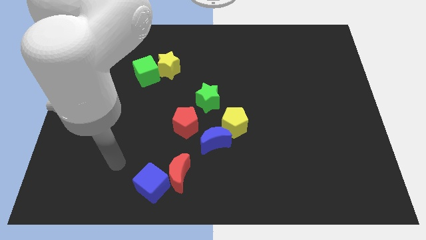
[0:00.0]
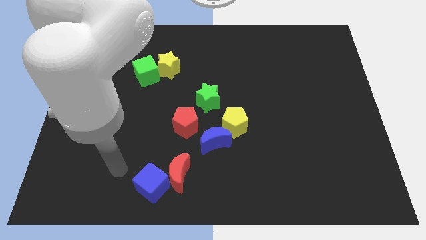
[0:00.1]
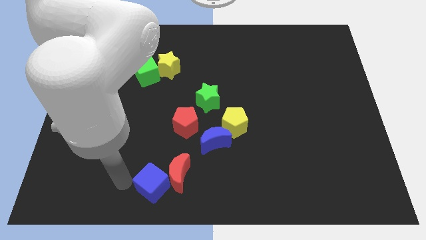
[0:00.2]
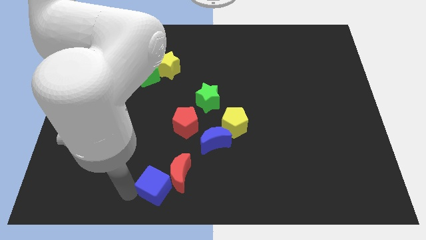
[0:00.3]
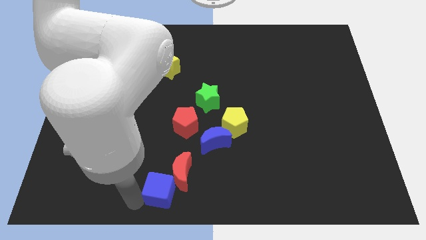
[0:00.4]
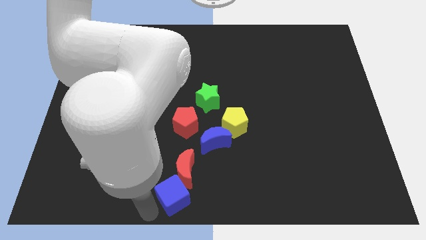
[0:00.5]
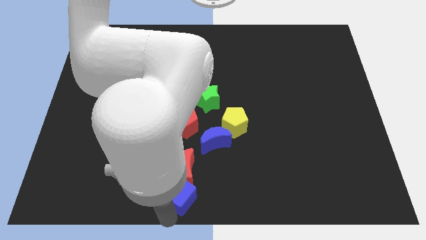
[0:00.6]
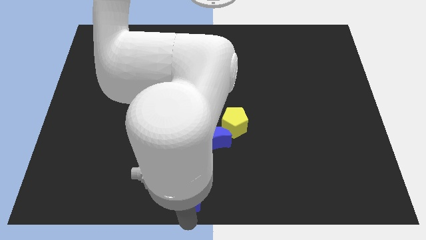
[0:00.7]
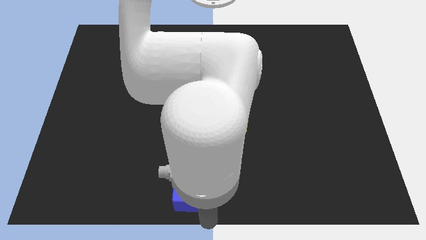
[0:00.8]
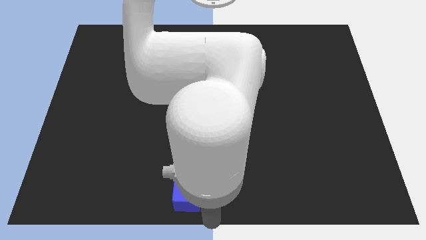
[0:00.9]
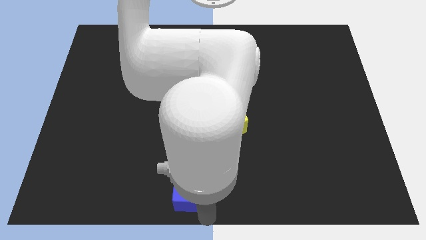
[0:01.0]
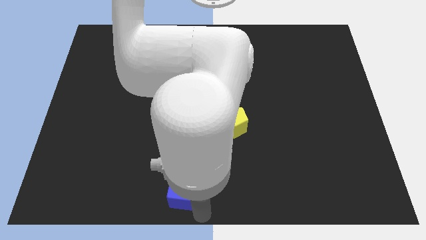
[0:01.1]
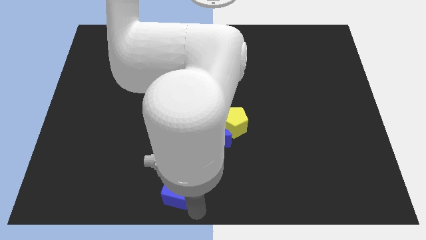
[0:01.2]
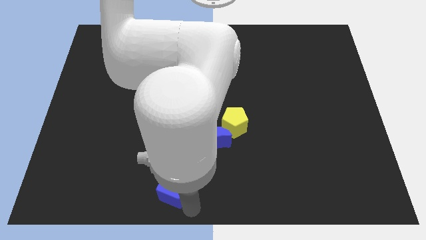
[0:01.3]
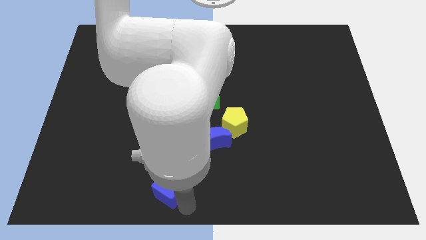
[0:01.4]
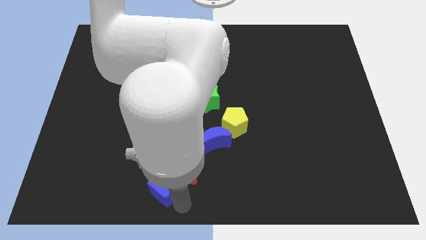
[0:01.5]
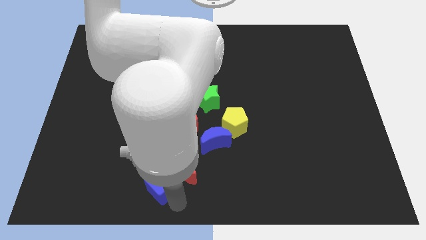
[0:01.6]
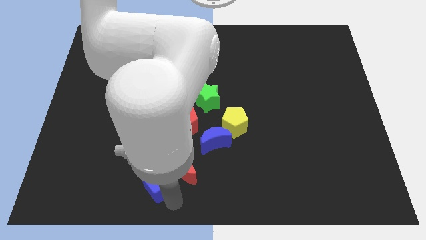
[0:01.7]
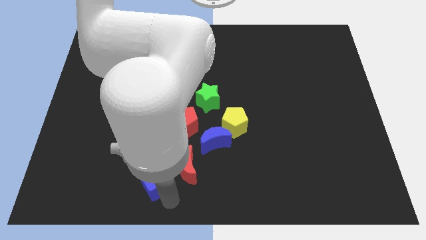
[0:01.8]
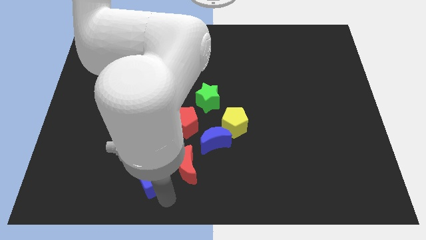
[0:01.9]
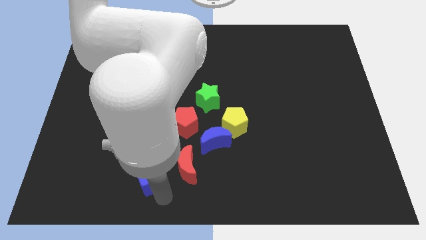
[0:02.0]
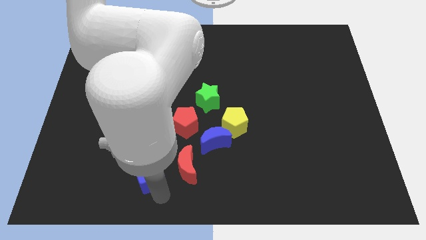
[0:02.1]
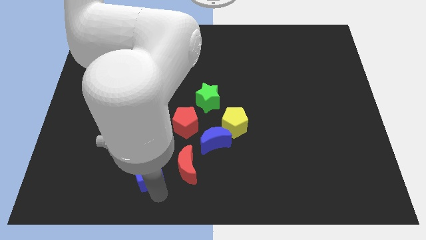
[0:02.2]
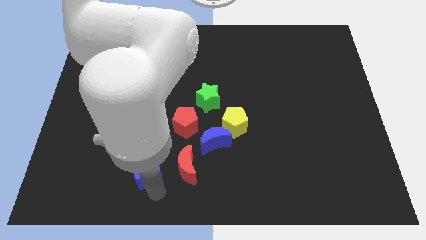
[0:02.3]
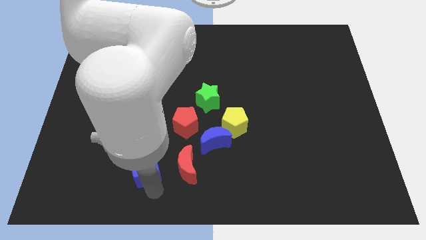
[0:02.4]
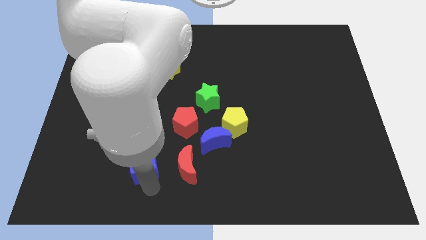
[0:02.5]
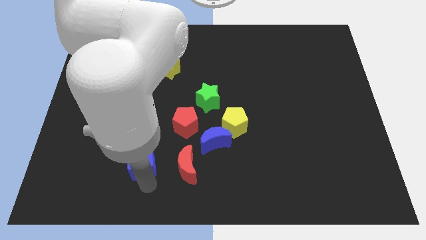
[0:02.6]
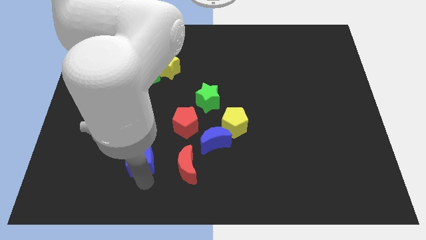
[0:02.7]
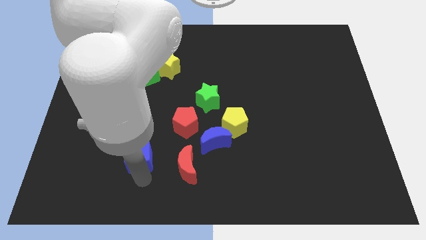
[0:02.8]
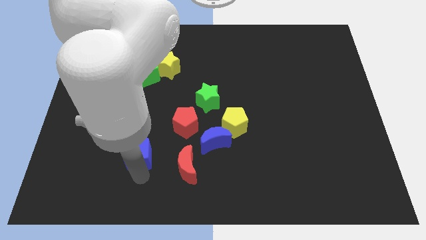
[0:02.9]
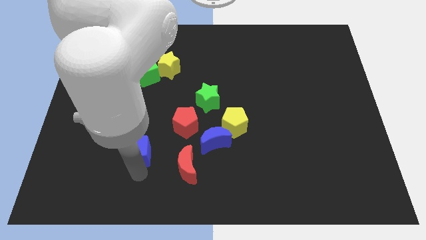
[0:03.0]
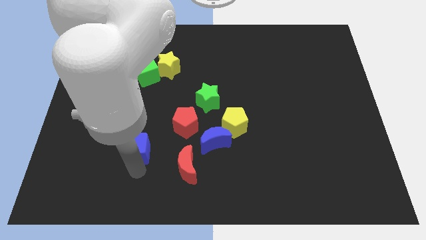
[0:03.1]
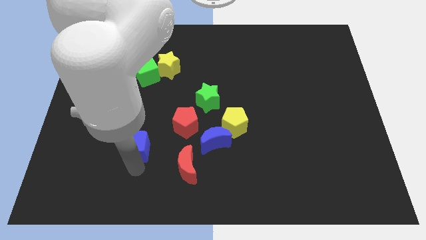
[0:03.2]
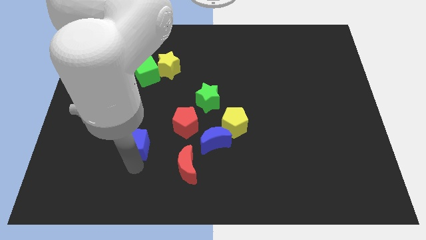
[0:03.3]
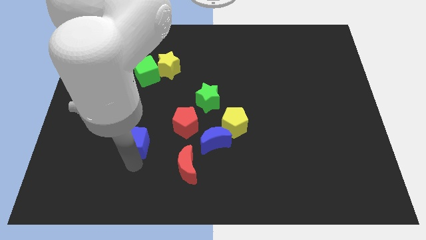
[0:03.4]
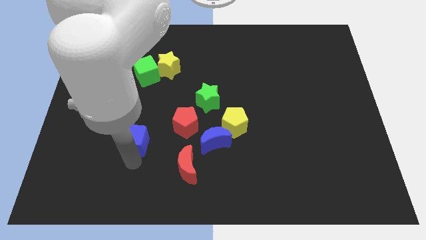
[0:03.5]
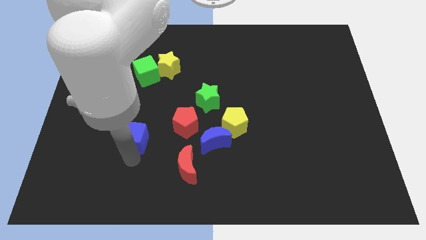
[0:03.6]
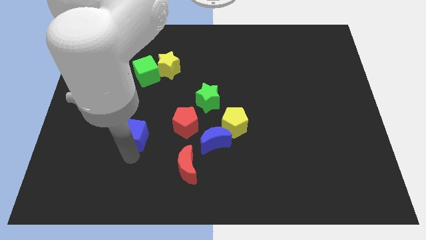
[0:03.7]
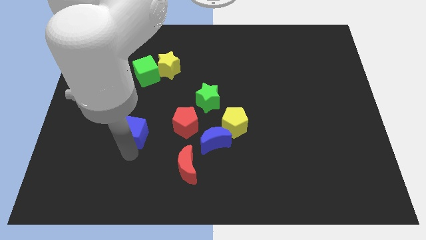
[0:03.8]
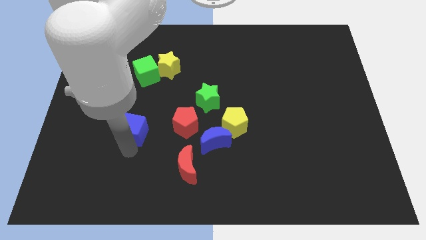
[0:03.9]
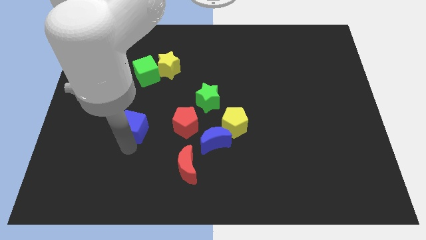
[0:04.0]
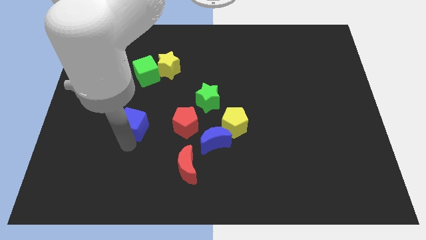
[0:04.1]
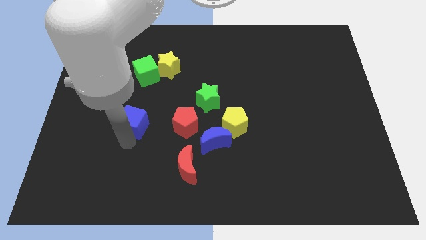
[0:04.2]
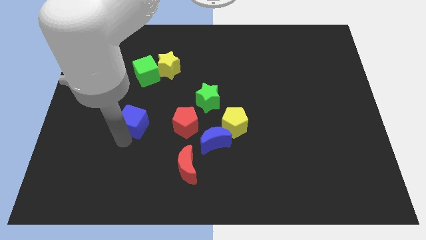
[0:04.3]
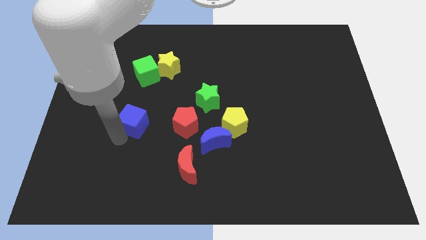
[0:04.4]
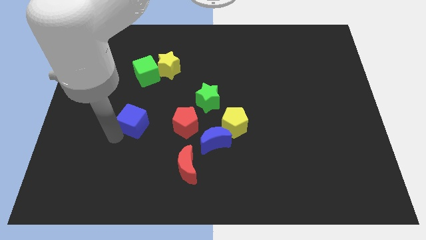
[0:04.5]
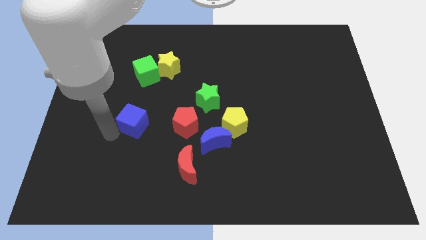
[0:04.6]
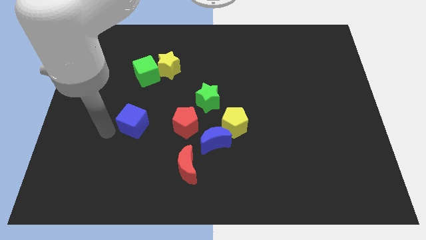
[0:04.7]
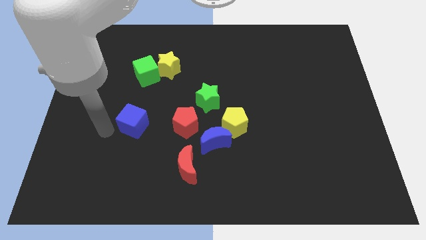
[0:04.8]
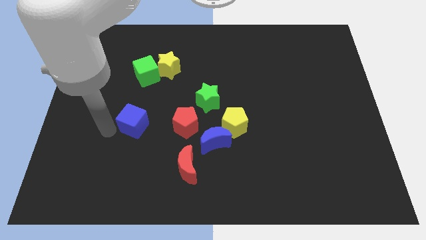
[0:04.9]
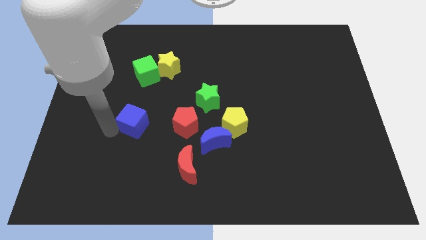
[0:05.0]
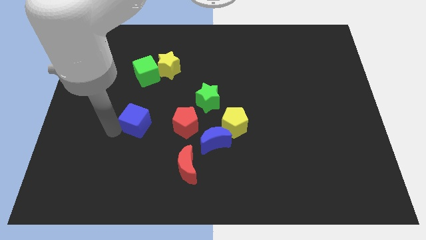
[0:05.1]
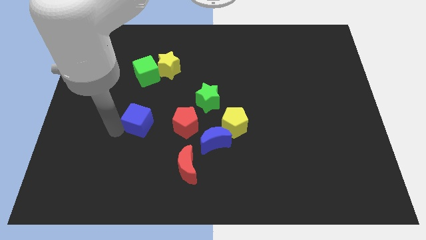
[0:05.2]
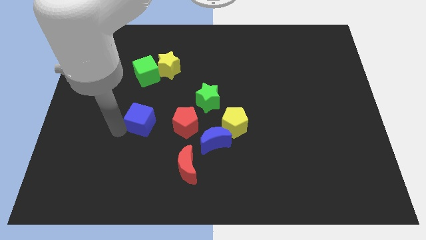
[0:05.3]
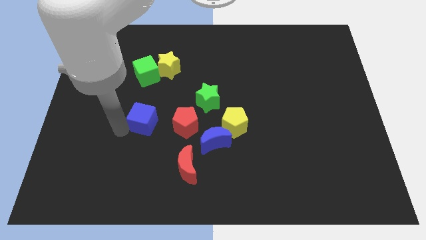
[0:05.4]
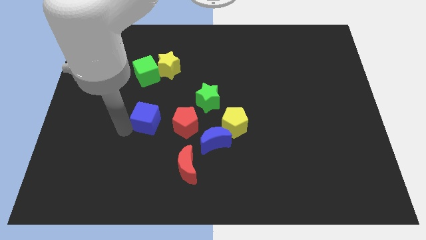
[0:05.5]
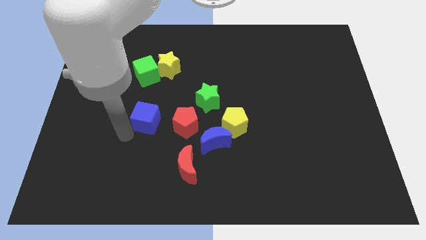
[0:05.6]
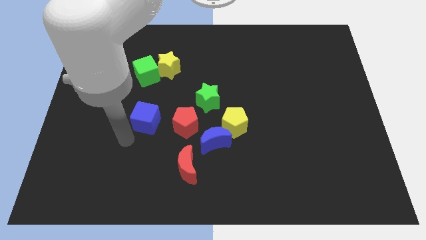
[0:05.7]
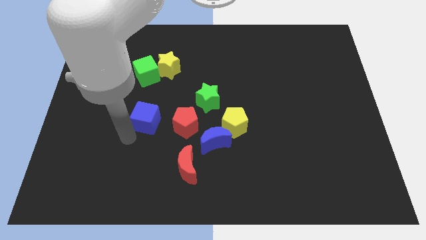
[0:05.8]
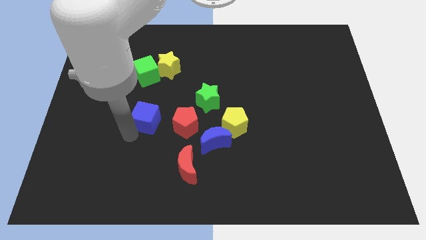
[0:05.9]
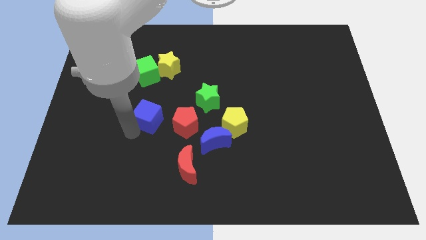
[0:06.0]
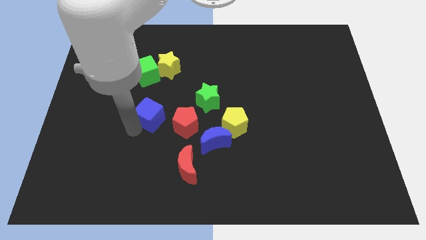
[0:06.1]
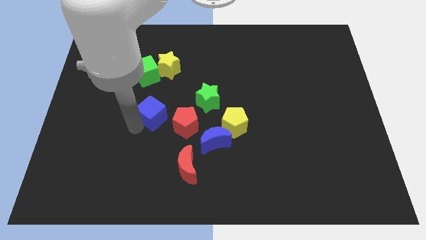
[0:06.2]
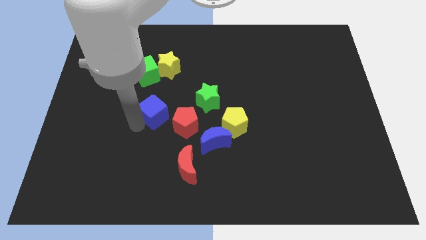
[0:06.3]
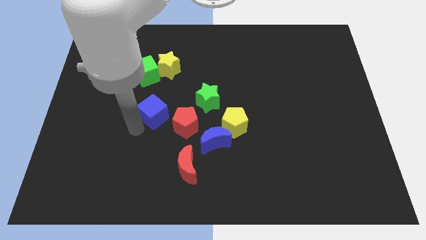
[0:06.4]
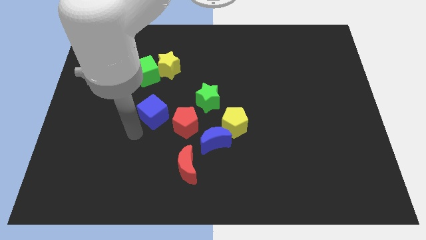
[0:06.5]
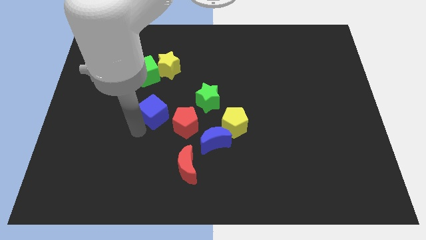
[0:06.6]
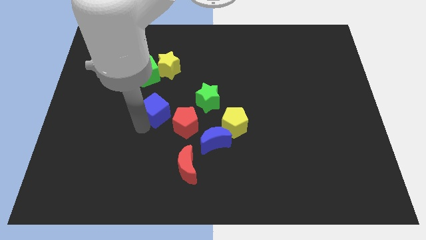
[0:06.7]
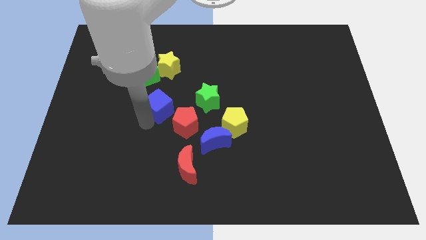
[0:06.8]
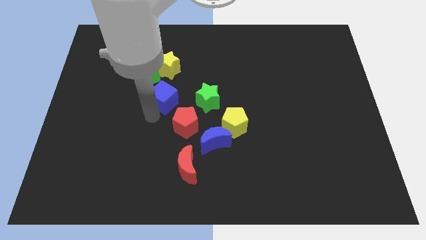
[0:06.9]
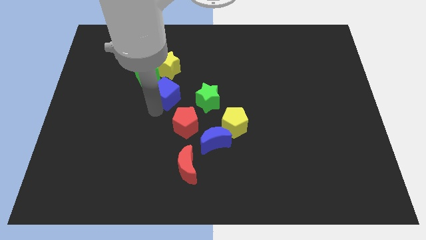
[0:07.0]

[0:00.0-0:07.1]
put the blue cube above the red pentagon

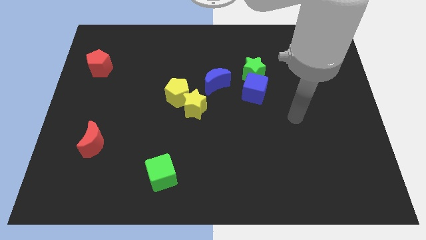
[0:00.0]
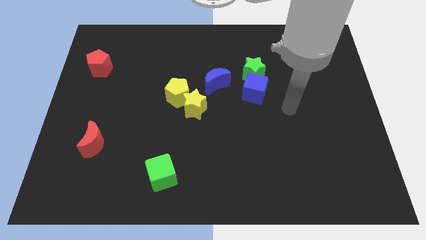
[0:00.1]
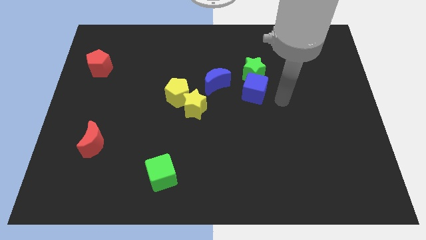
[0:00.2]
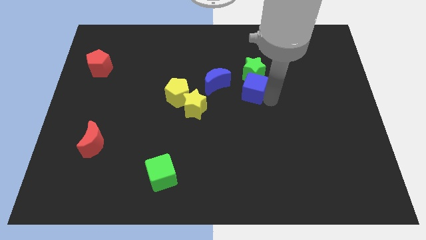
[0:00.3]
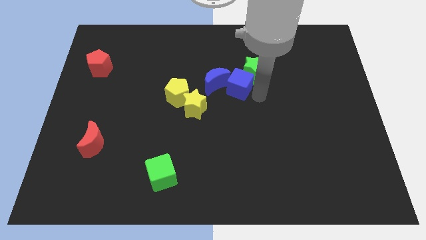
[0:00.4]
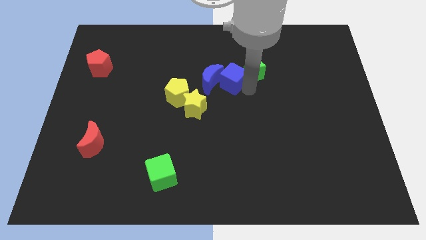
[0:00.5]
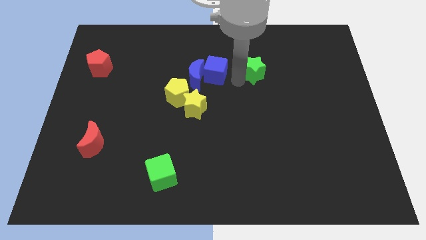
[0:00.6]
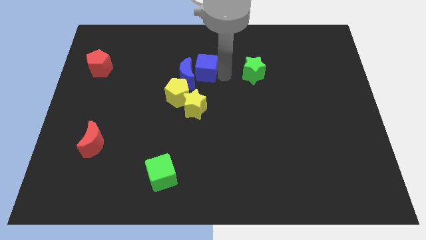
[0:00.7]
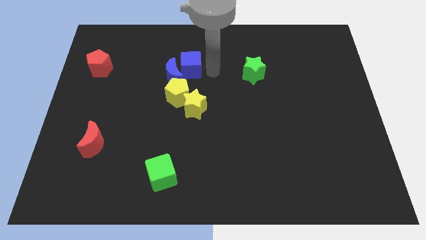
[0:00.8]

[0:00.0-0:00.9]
push the blue moon to the top left of the yellow pentagon
